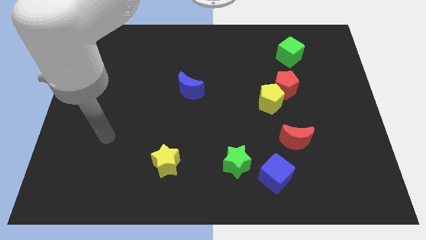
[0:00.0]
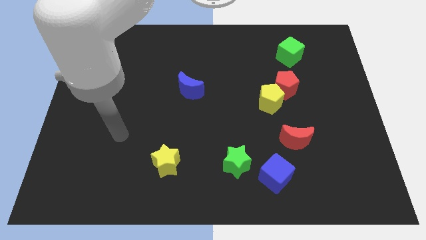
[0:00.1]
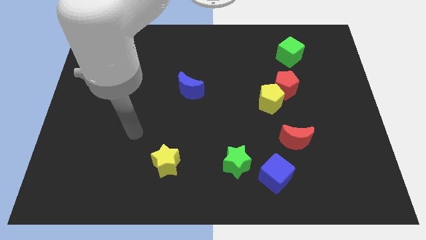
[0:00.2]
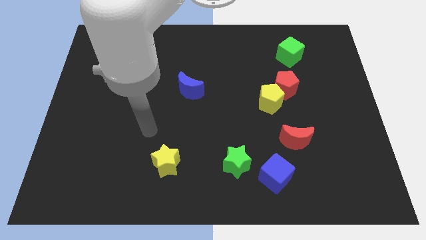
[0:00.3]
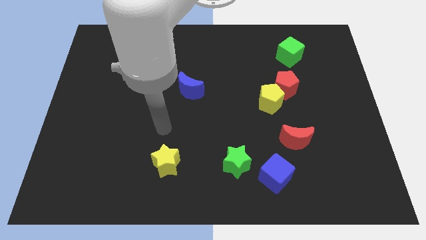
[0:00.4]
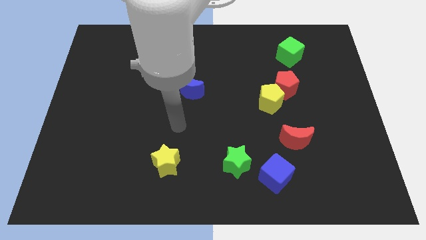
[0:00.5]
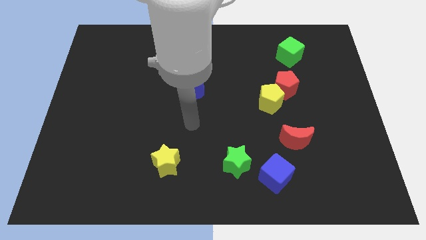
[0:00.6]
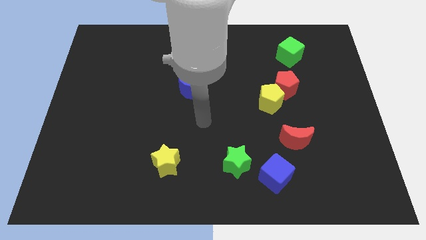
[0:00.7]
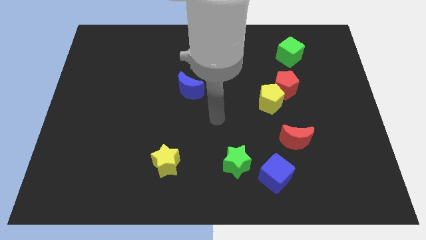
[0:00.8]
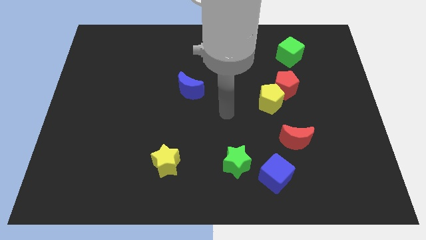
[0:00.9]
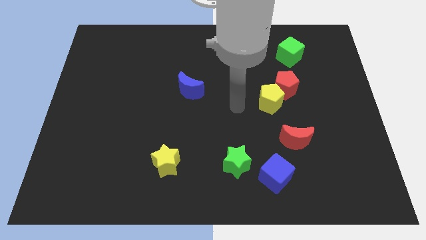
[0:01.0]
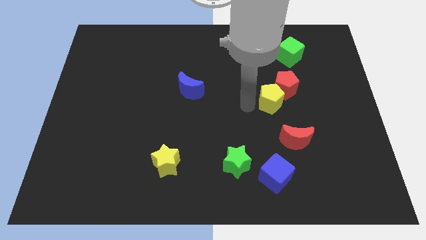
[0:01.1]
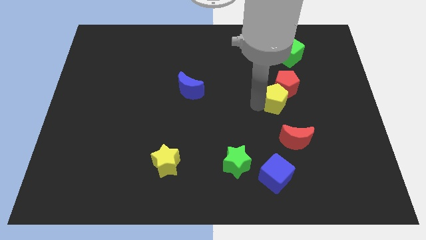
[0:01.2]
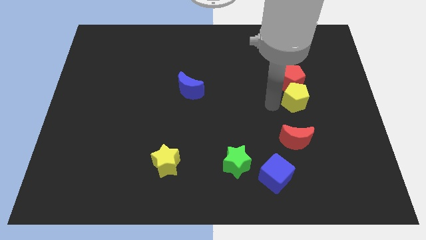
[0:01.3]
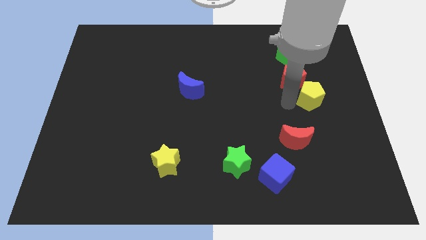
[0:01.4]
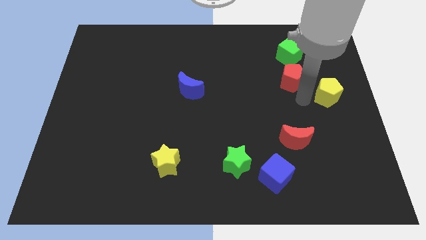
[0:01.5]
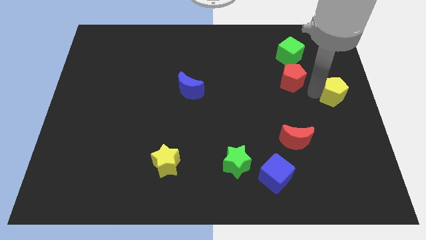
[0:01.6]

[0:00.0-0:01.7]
move the red pentagon away from the yellow pentagon

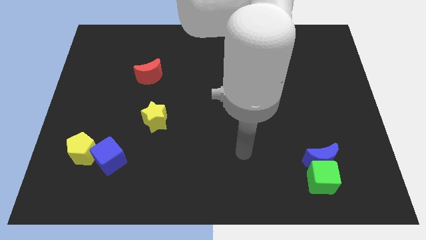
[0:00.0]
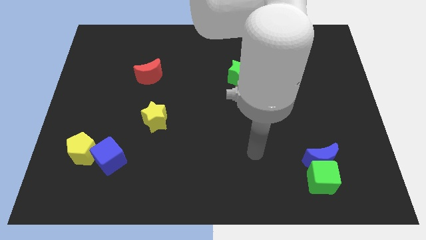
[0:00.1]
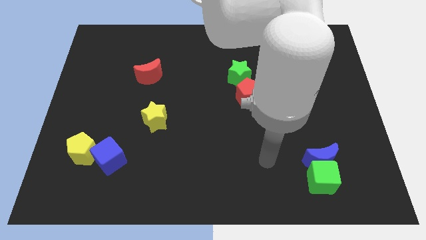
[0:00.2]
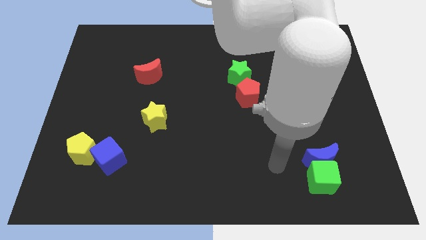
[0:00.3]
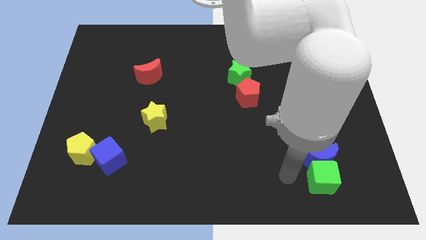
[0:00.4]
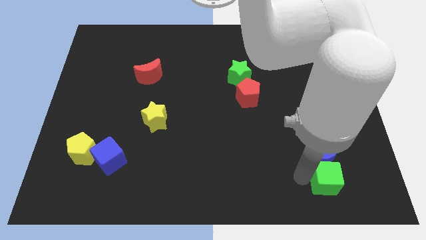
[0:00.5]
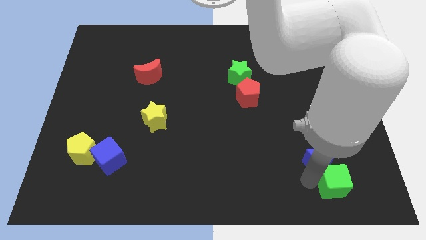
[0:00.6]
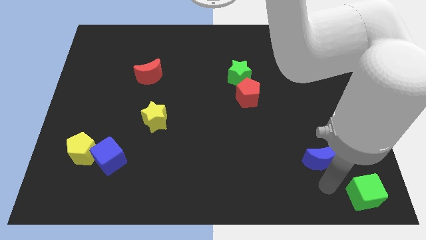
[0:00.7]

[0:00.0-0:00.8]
separate the blue moon from the green cube

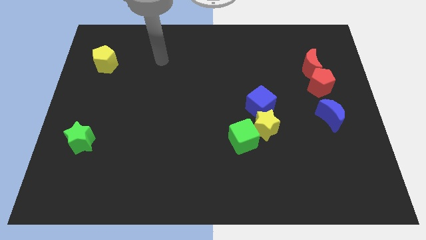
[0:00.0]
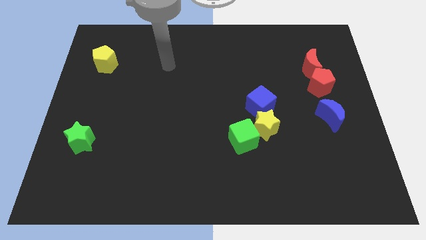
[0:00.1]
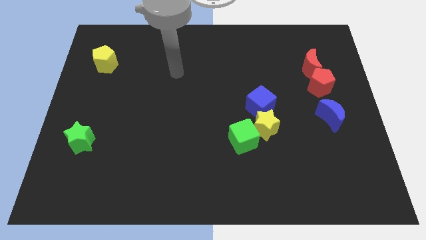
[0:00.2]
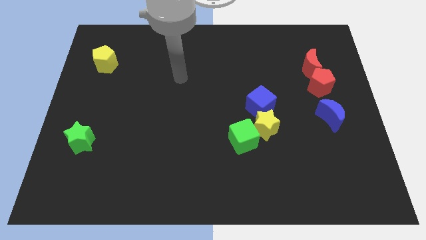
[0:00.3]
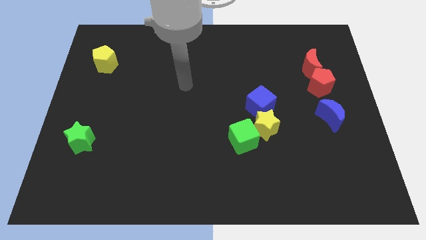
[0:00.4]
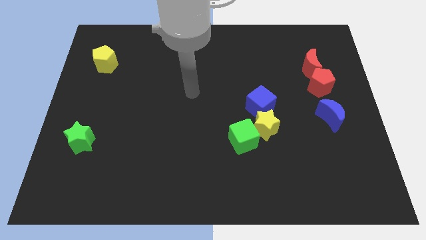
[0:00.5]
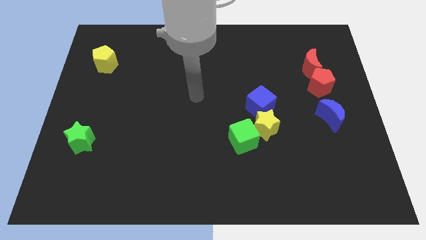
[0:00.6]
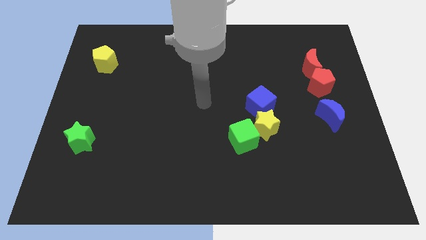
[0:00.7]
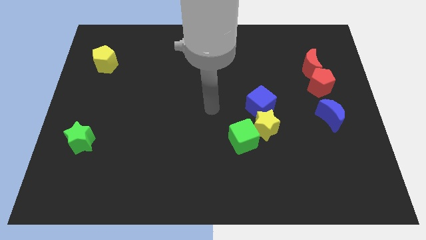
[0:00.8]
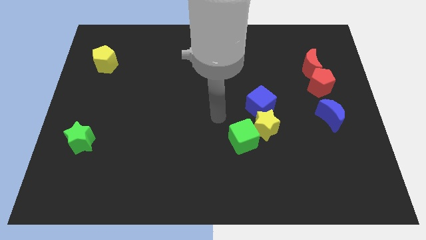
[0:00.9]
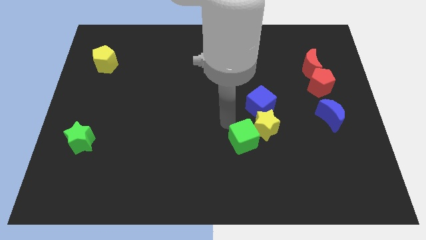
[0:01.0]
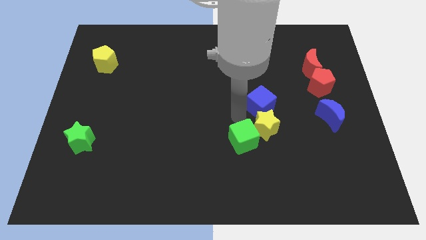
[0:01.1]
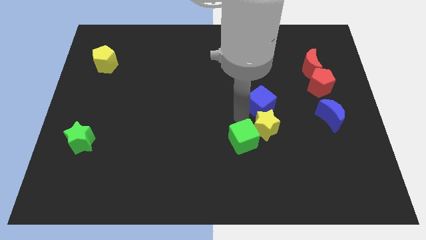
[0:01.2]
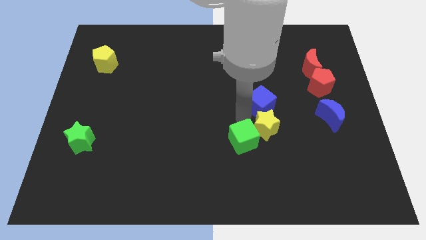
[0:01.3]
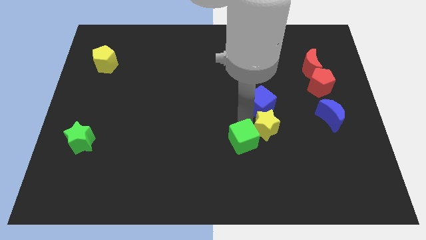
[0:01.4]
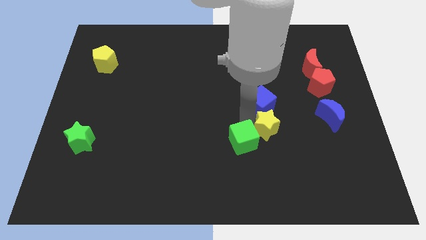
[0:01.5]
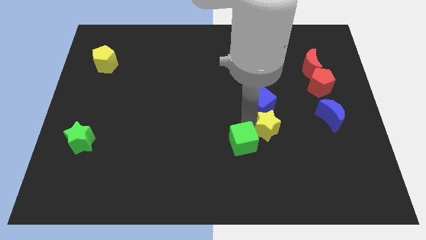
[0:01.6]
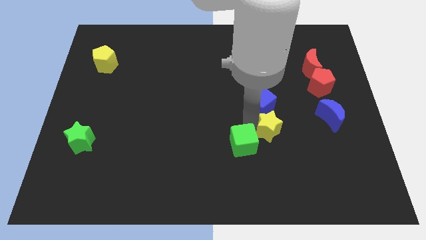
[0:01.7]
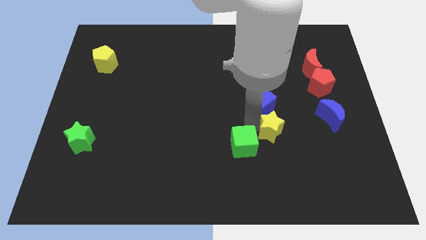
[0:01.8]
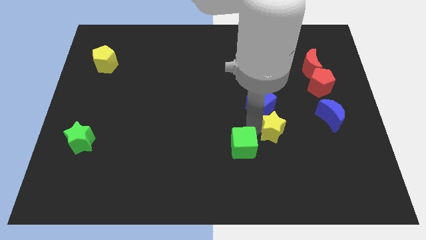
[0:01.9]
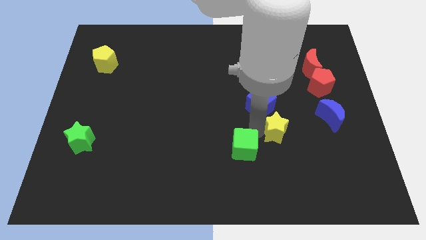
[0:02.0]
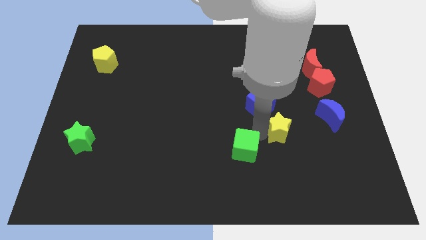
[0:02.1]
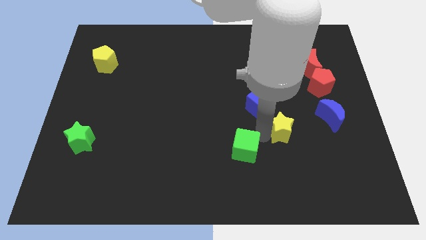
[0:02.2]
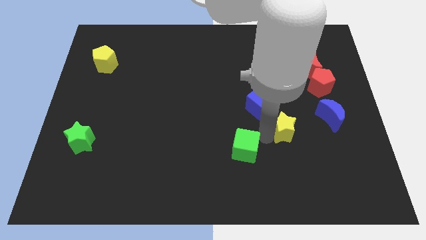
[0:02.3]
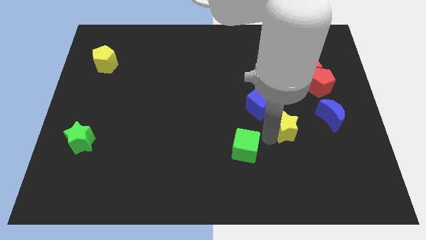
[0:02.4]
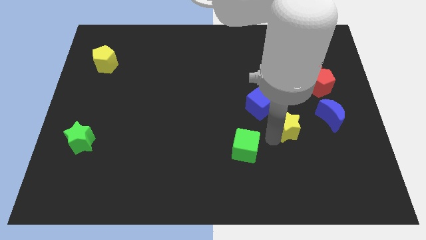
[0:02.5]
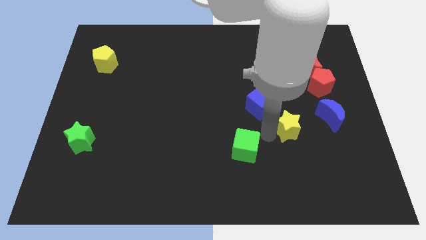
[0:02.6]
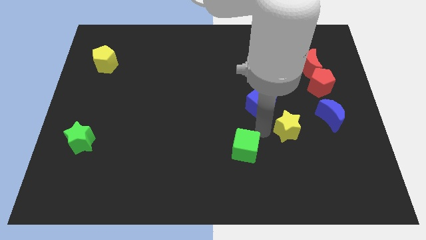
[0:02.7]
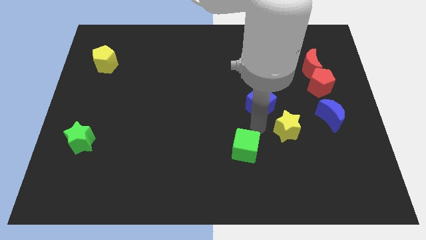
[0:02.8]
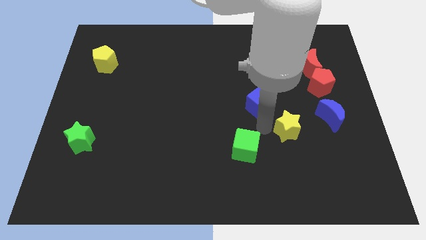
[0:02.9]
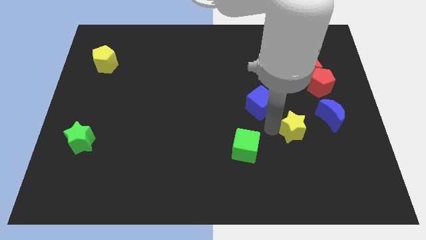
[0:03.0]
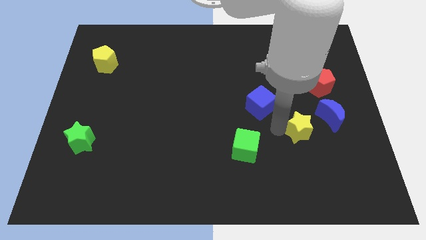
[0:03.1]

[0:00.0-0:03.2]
pull the yellow star apart from the green cube and blue cube

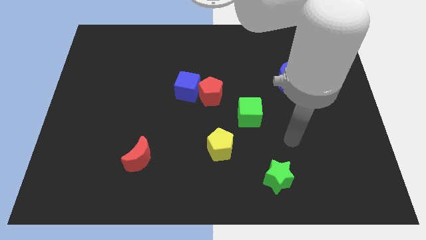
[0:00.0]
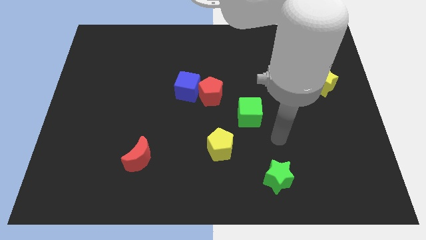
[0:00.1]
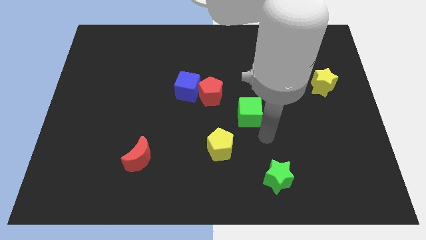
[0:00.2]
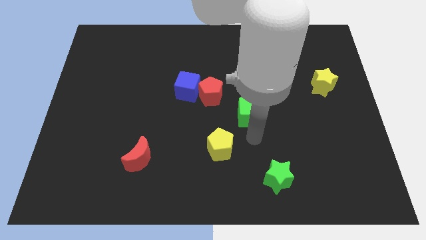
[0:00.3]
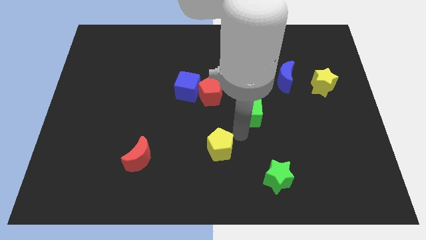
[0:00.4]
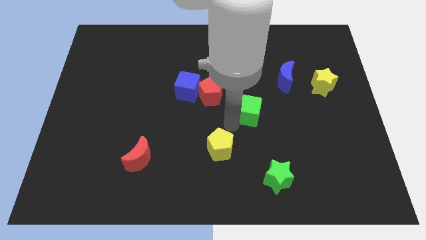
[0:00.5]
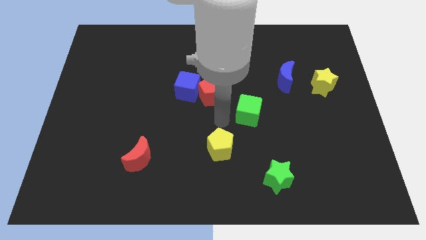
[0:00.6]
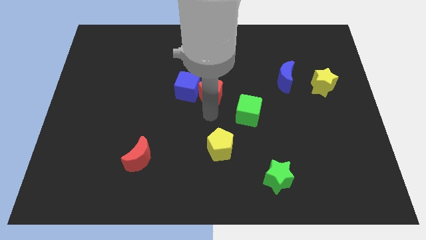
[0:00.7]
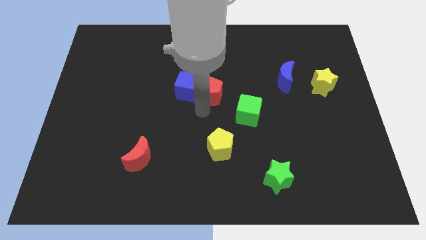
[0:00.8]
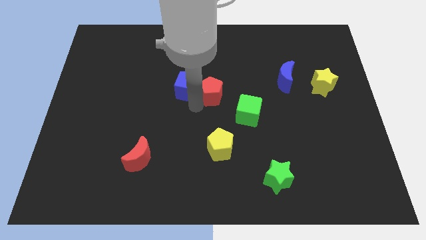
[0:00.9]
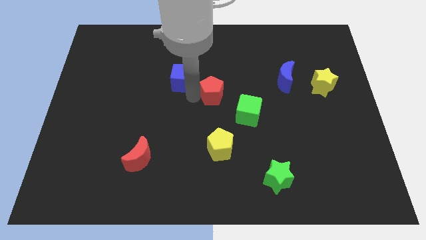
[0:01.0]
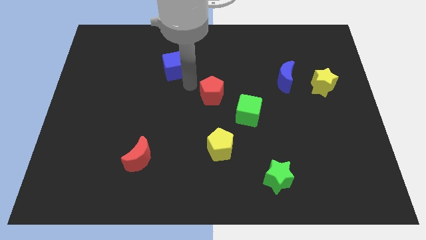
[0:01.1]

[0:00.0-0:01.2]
move the red pentagon away from the blue cube

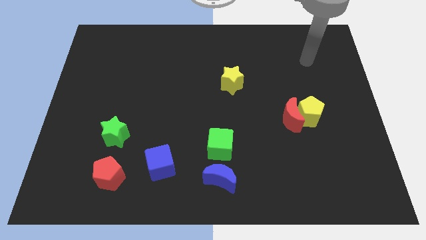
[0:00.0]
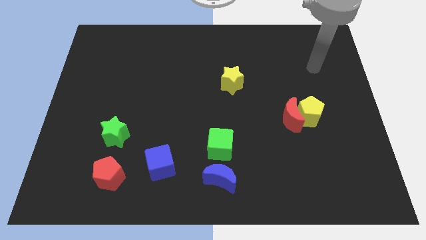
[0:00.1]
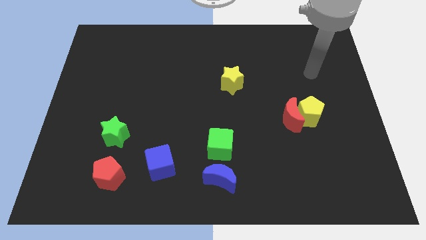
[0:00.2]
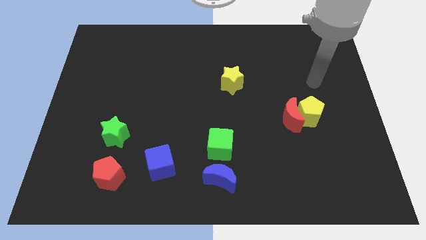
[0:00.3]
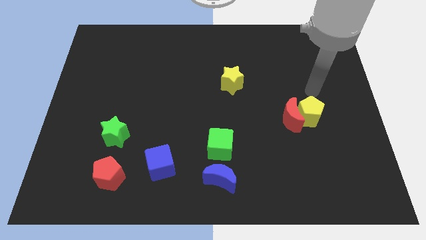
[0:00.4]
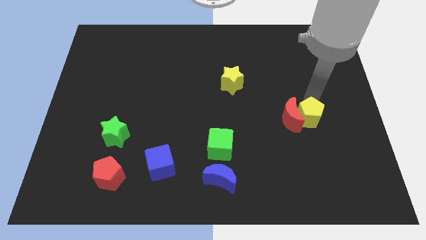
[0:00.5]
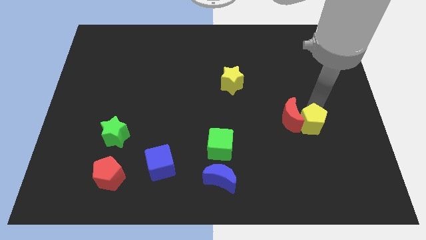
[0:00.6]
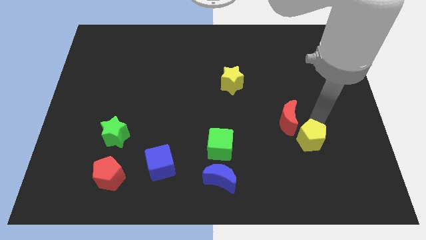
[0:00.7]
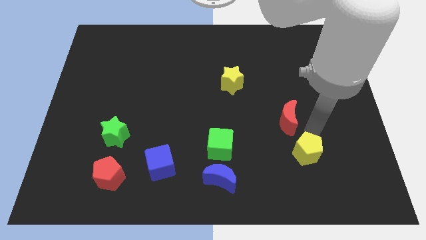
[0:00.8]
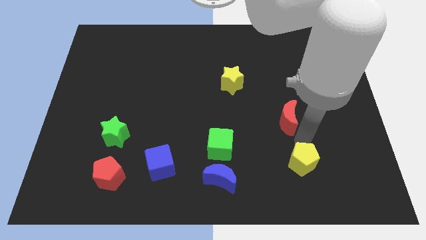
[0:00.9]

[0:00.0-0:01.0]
pull the red moon apart from the yellow pentagon

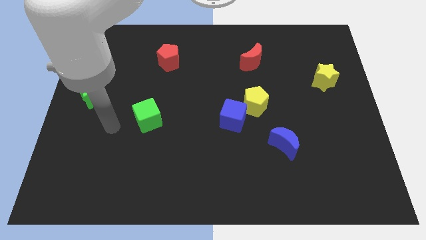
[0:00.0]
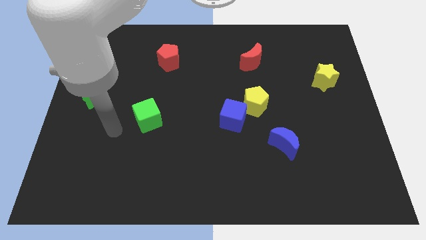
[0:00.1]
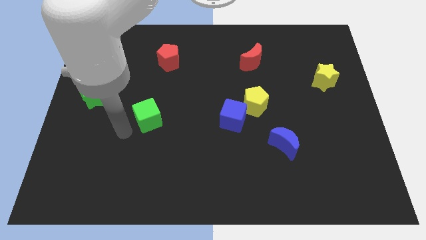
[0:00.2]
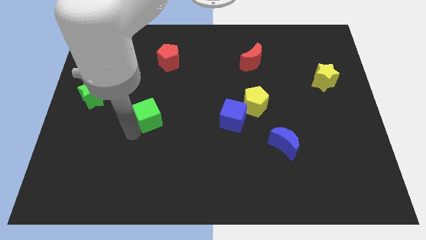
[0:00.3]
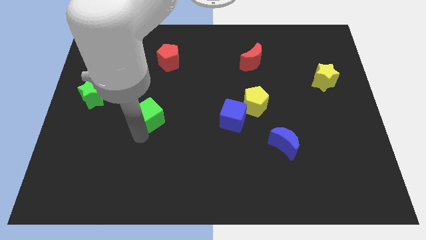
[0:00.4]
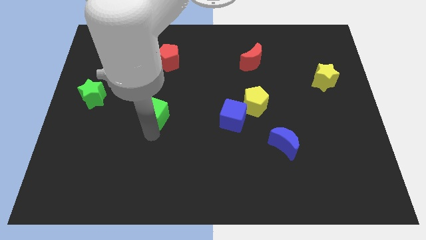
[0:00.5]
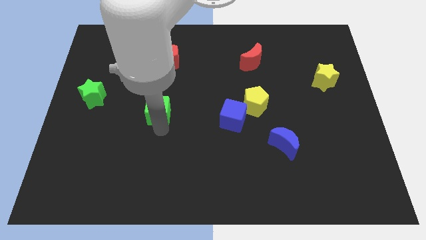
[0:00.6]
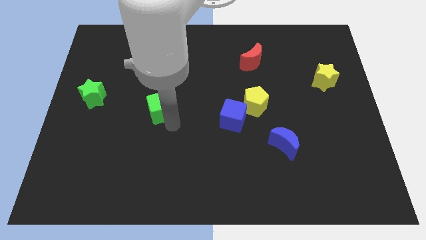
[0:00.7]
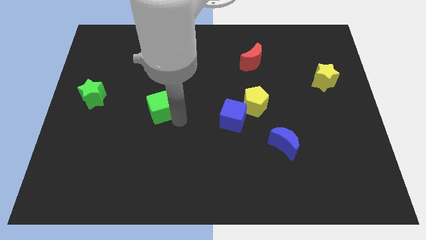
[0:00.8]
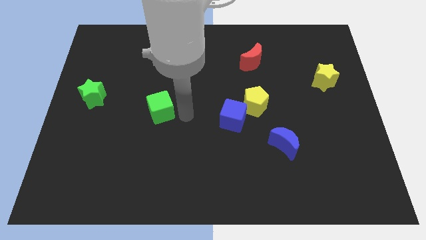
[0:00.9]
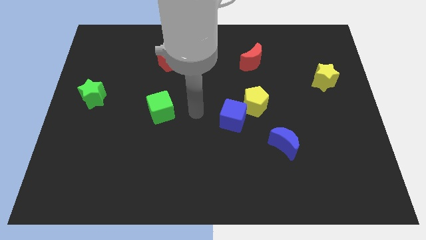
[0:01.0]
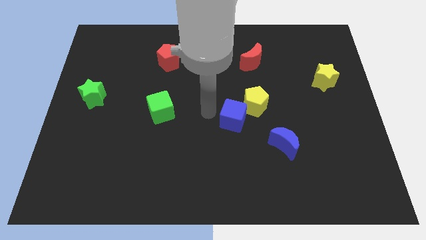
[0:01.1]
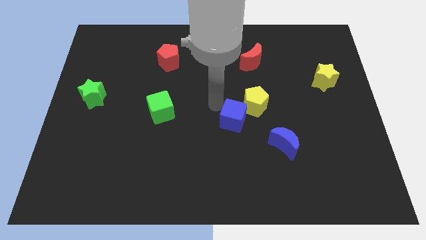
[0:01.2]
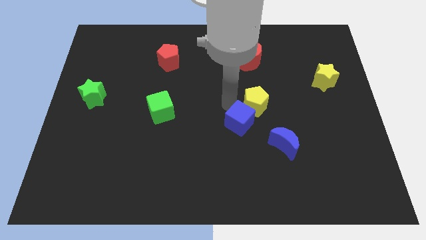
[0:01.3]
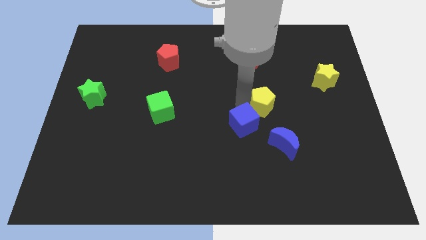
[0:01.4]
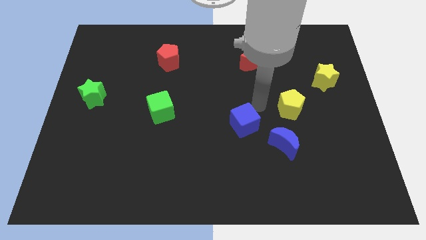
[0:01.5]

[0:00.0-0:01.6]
pull the blue cube apart from the yellow pentagon
